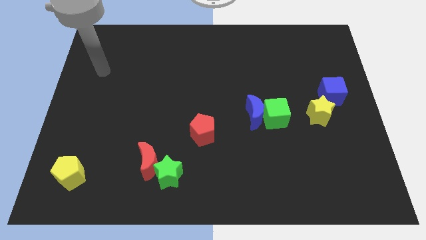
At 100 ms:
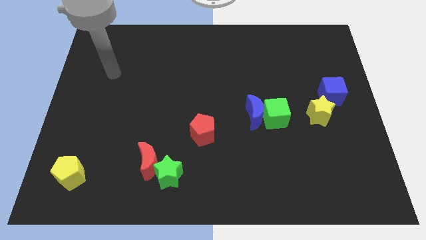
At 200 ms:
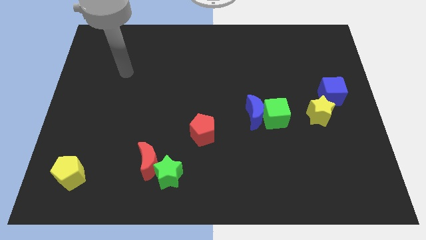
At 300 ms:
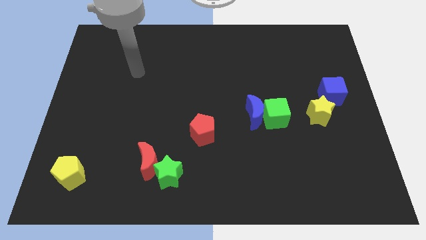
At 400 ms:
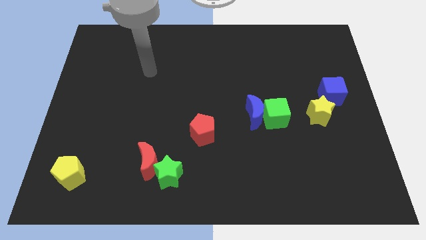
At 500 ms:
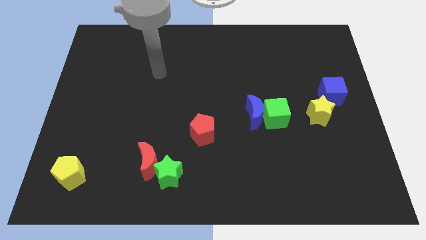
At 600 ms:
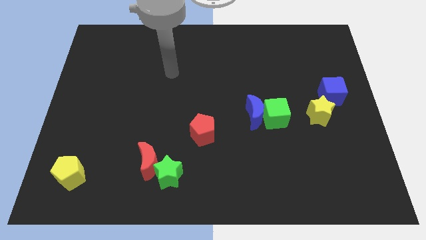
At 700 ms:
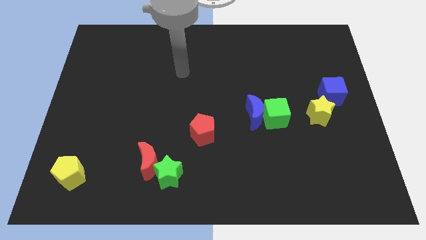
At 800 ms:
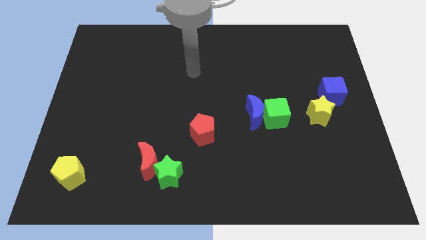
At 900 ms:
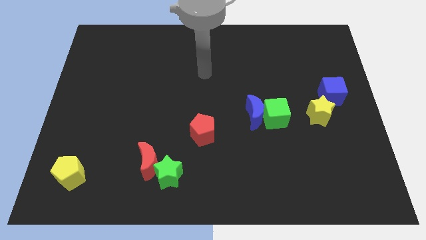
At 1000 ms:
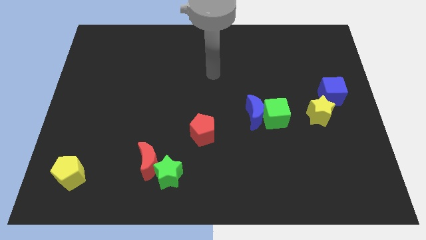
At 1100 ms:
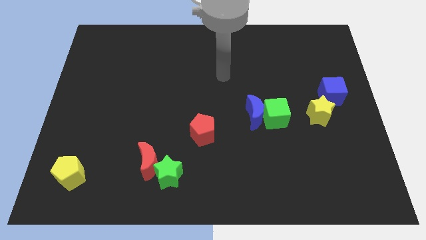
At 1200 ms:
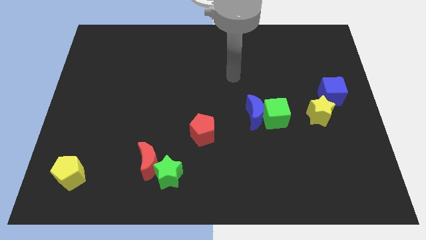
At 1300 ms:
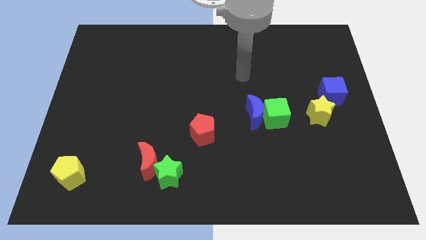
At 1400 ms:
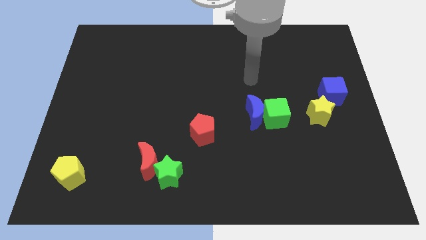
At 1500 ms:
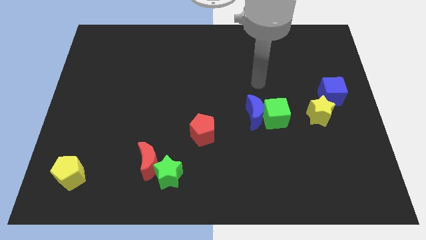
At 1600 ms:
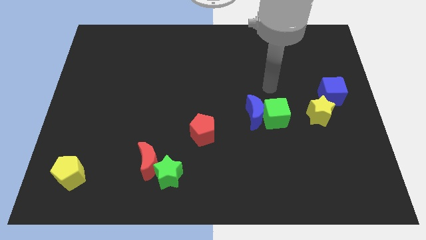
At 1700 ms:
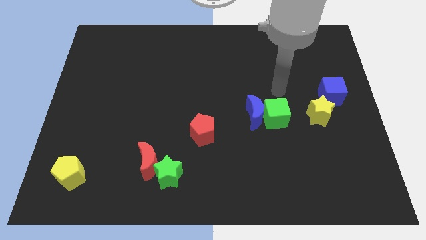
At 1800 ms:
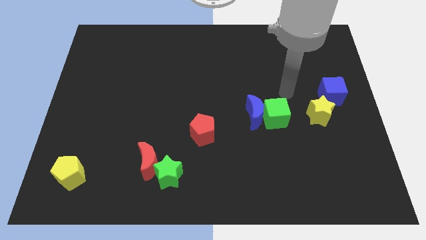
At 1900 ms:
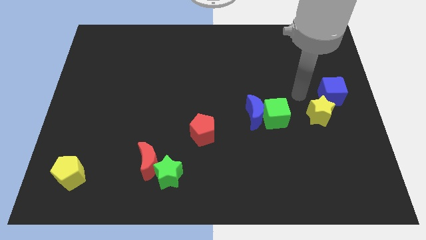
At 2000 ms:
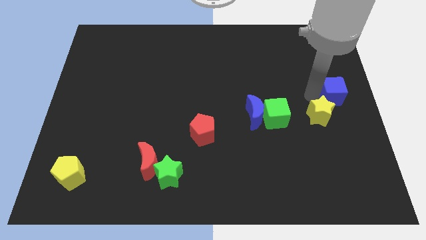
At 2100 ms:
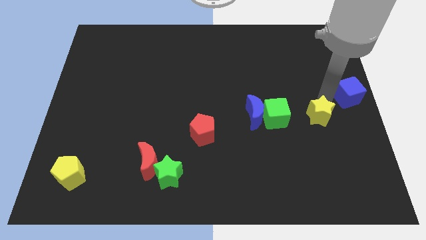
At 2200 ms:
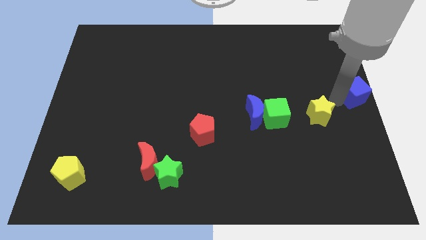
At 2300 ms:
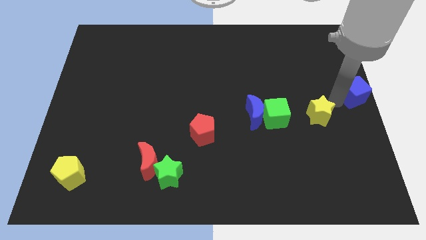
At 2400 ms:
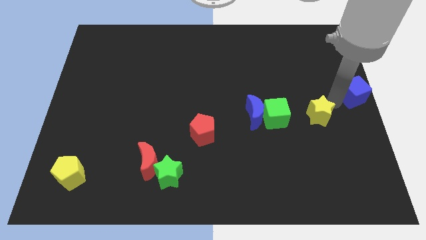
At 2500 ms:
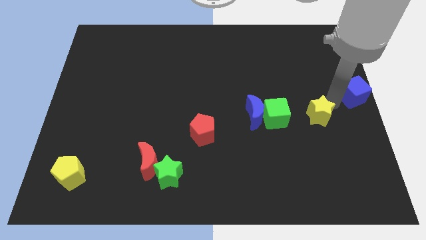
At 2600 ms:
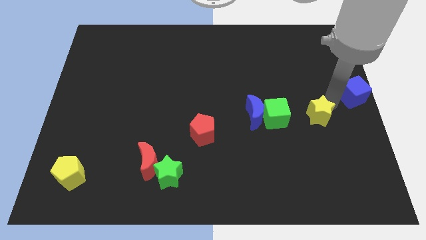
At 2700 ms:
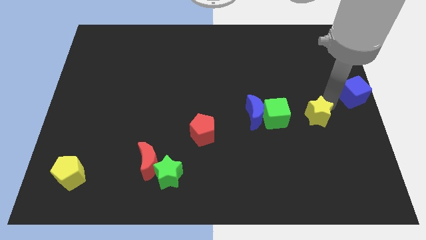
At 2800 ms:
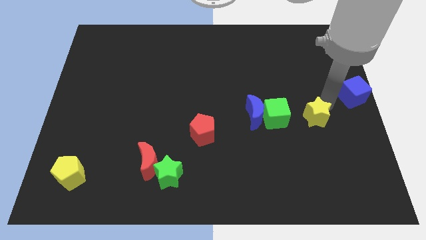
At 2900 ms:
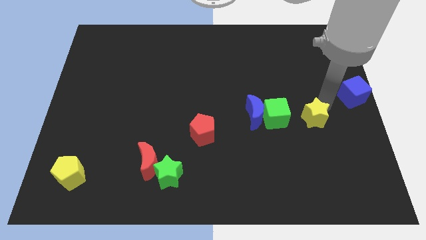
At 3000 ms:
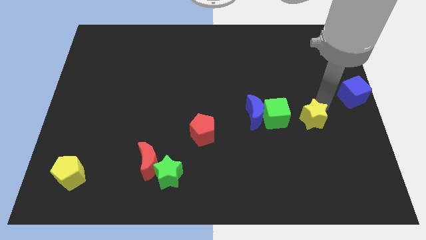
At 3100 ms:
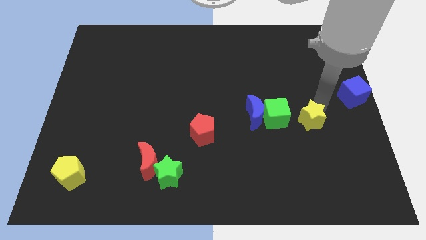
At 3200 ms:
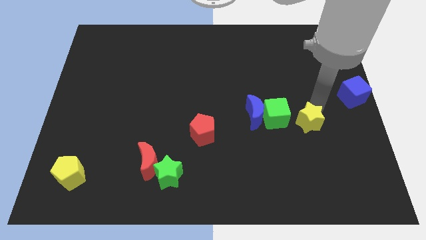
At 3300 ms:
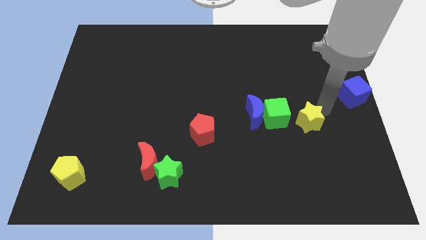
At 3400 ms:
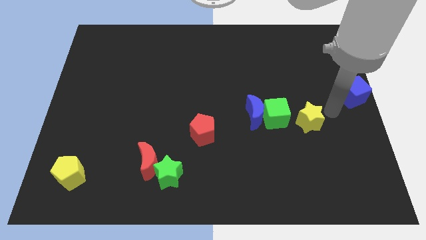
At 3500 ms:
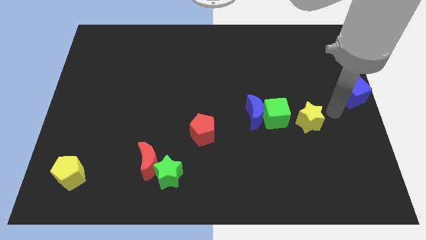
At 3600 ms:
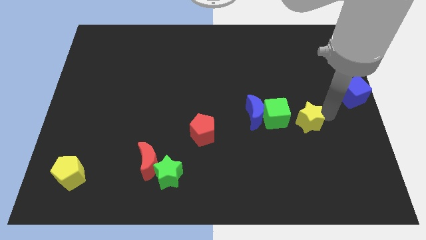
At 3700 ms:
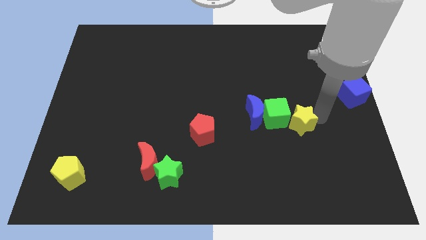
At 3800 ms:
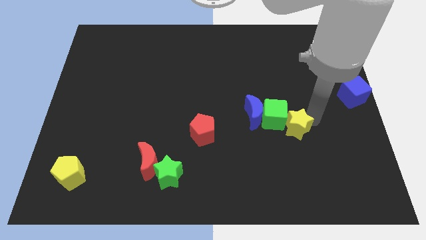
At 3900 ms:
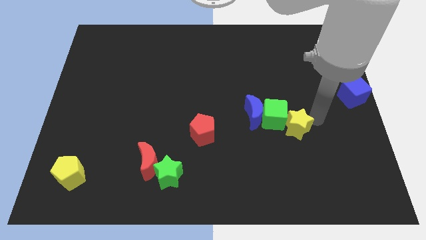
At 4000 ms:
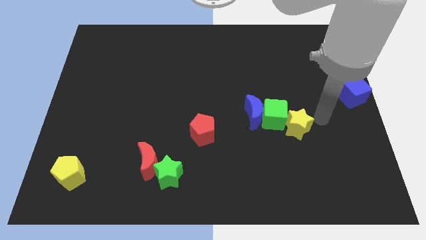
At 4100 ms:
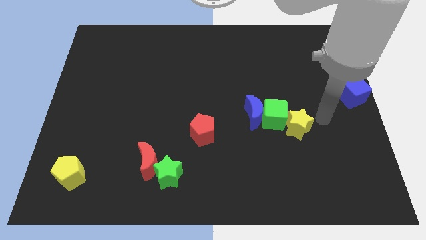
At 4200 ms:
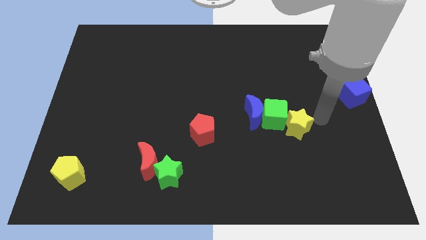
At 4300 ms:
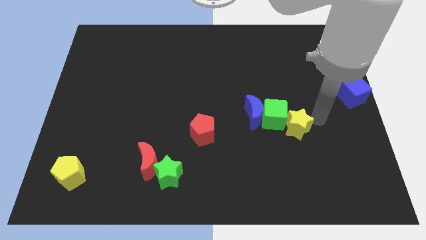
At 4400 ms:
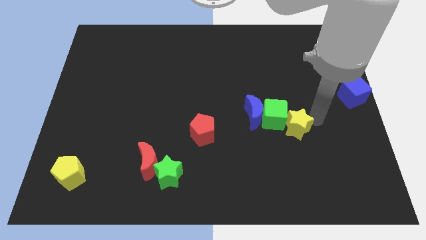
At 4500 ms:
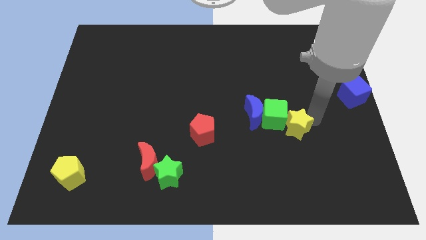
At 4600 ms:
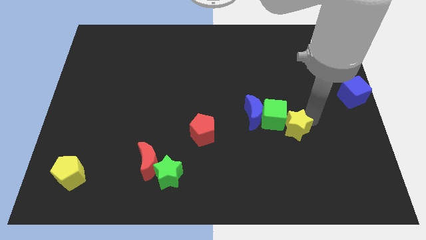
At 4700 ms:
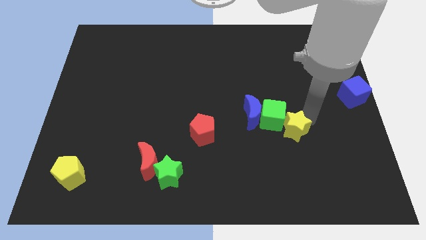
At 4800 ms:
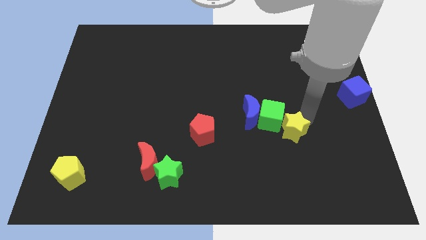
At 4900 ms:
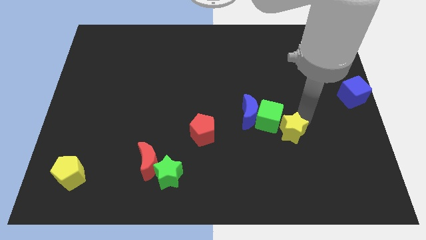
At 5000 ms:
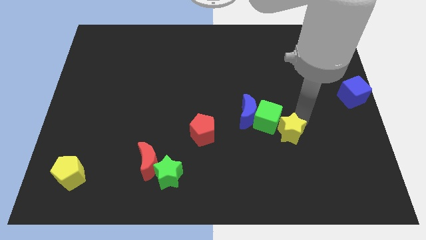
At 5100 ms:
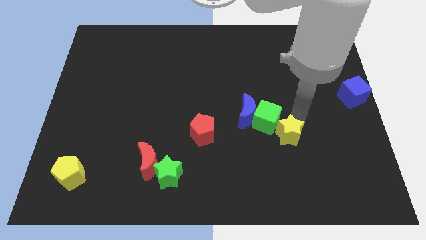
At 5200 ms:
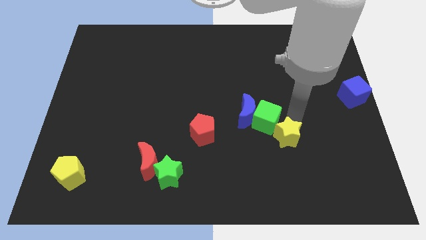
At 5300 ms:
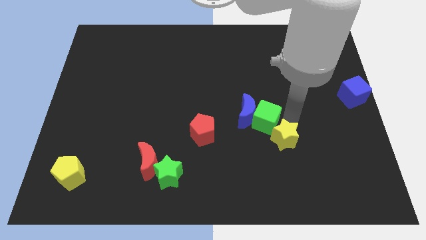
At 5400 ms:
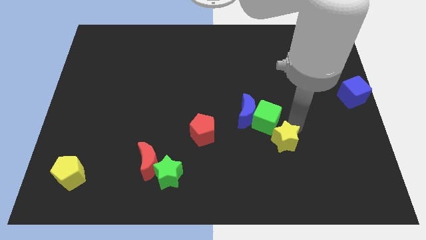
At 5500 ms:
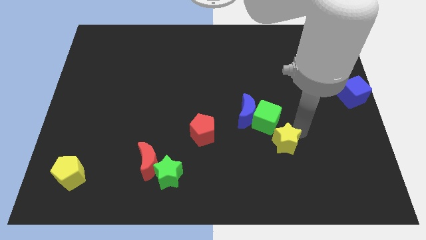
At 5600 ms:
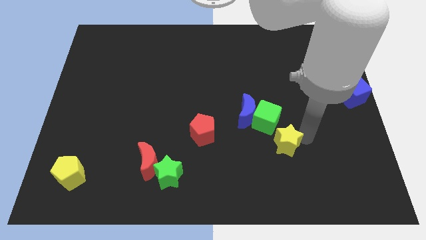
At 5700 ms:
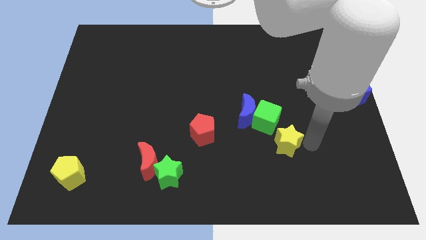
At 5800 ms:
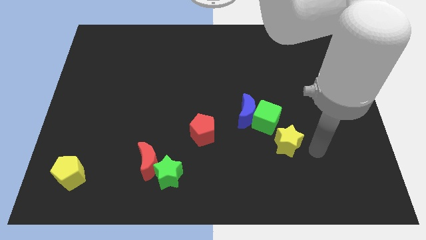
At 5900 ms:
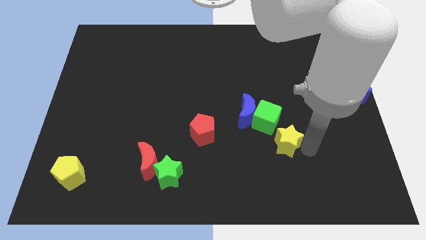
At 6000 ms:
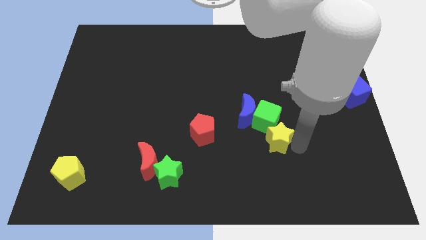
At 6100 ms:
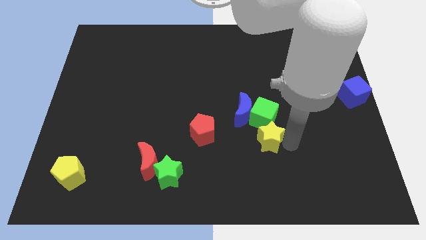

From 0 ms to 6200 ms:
push the yellow star to the right of the red pentagon
